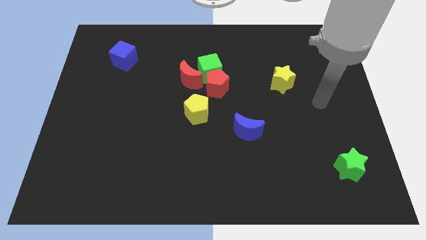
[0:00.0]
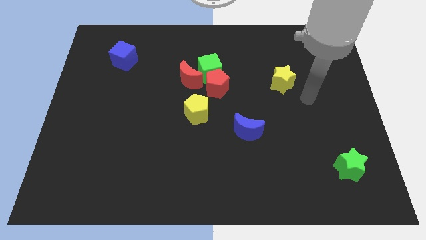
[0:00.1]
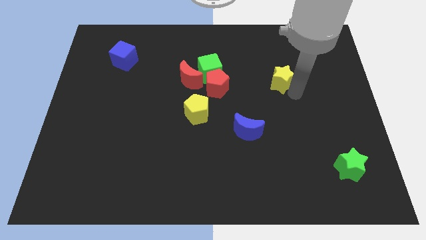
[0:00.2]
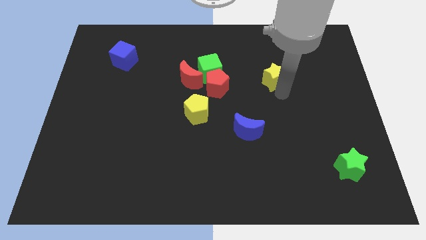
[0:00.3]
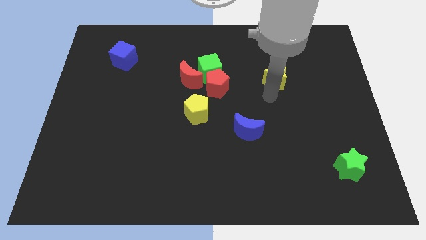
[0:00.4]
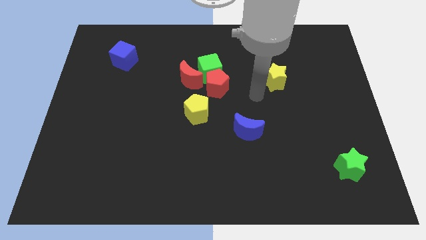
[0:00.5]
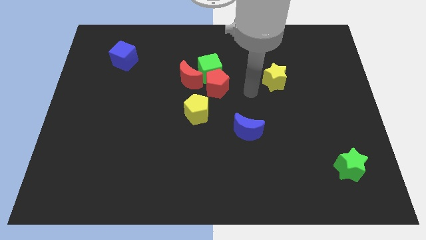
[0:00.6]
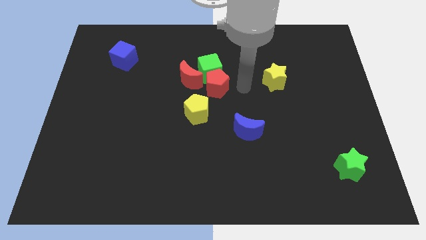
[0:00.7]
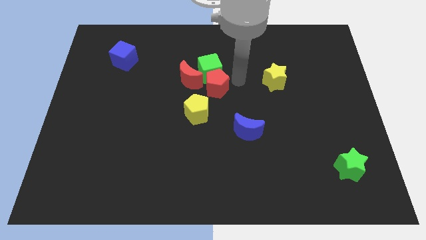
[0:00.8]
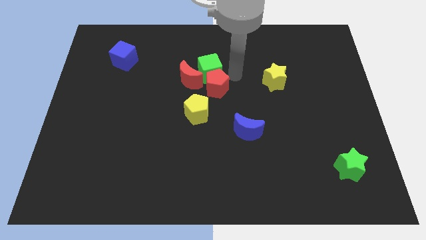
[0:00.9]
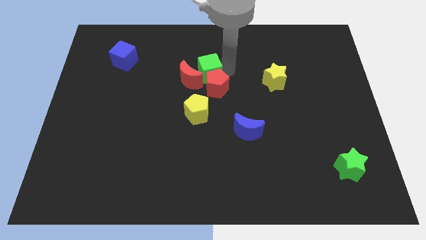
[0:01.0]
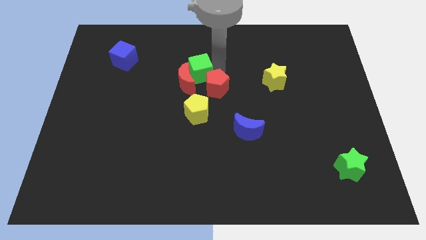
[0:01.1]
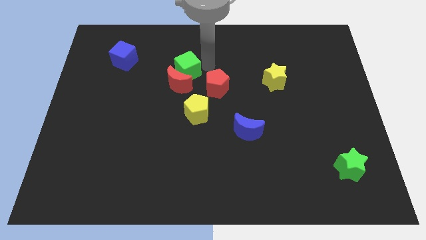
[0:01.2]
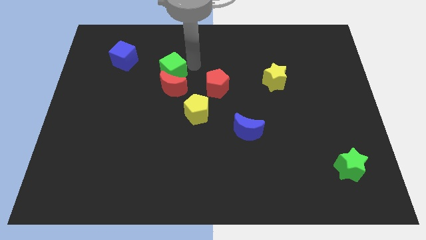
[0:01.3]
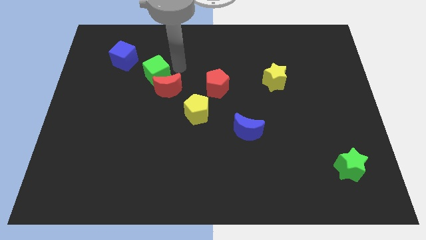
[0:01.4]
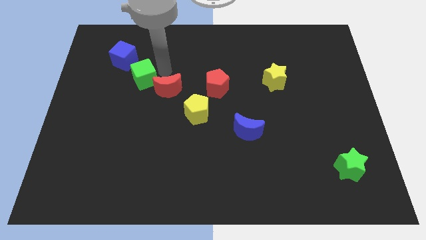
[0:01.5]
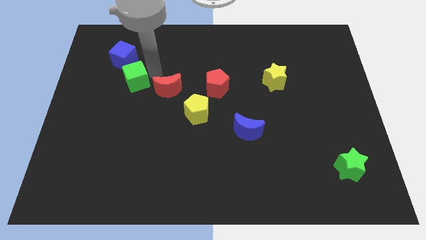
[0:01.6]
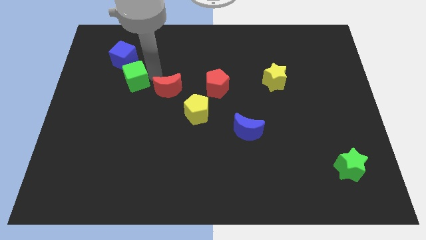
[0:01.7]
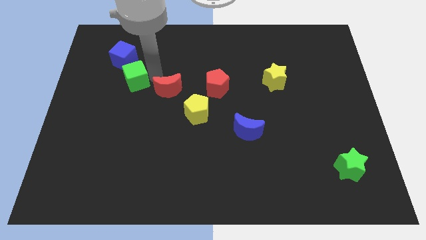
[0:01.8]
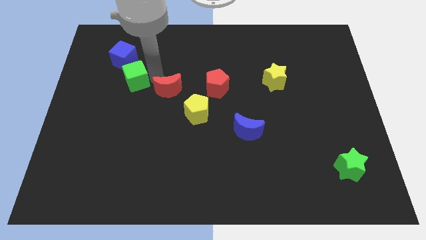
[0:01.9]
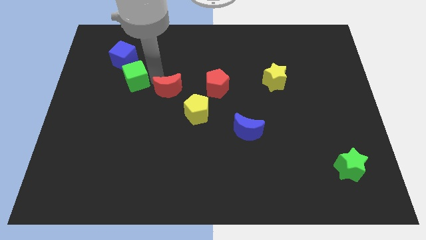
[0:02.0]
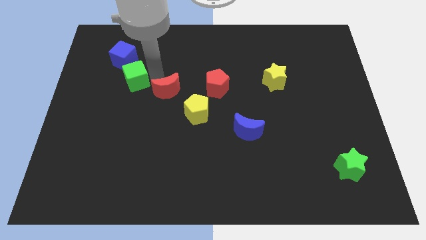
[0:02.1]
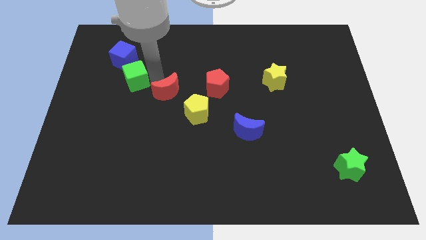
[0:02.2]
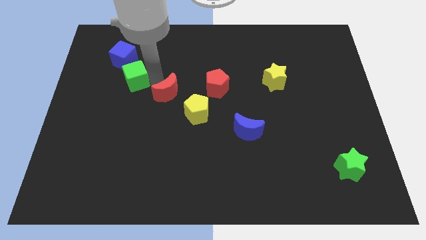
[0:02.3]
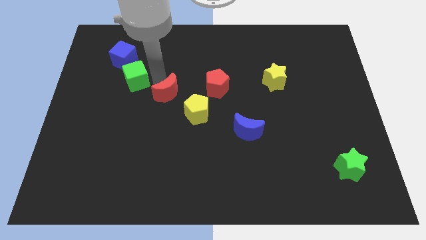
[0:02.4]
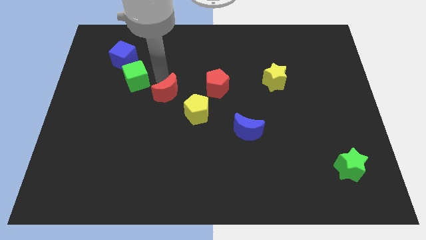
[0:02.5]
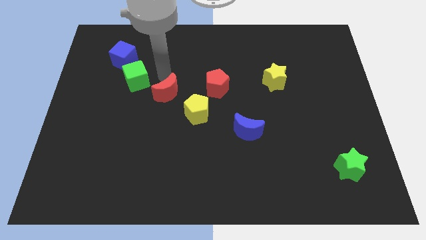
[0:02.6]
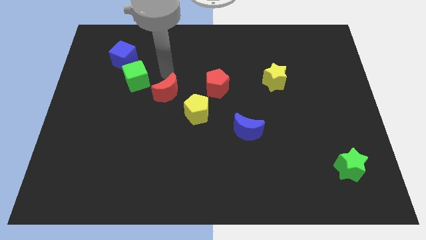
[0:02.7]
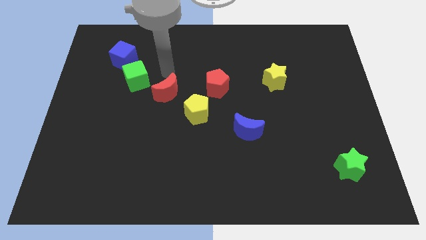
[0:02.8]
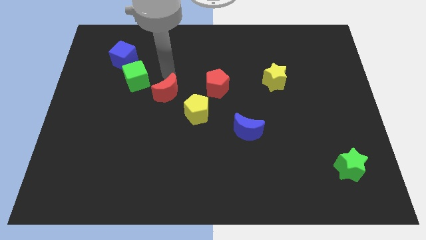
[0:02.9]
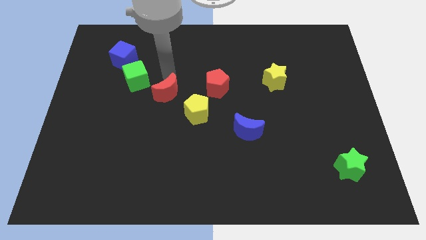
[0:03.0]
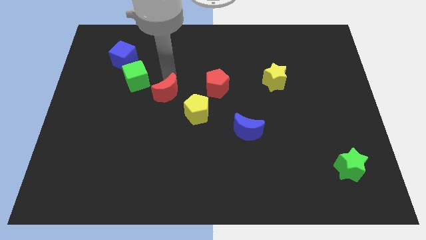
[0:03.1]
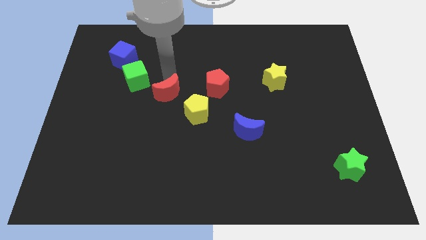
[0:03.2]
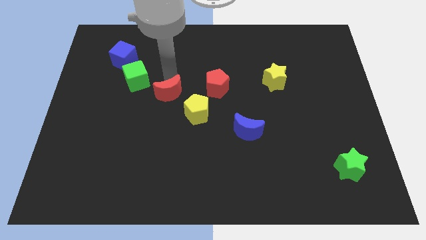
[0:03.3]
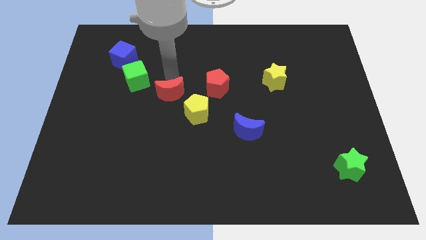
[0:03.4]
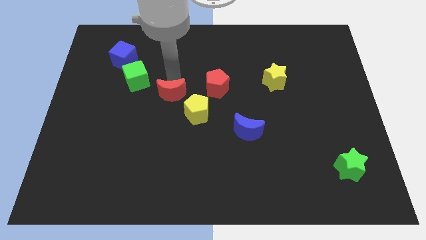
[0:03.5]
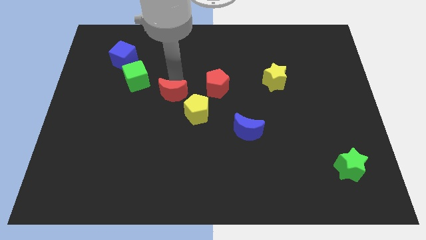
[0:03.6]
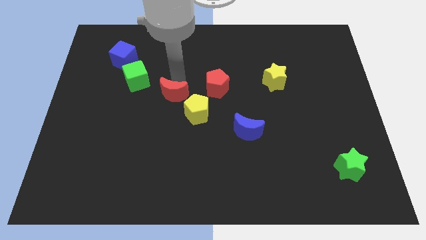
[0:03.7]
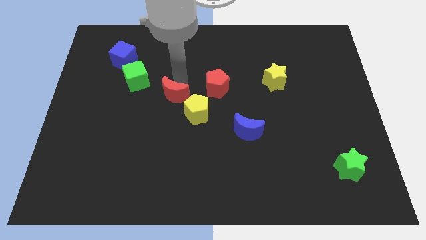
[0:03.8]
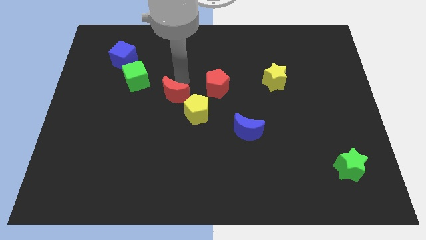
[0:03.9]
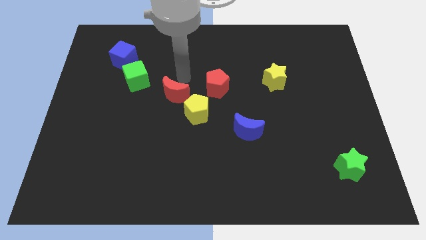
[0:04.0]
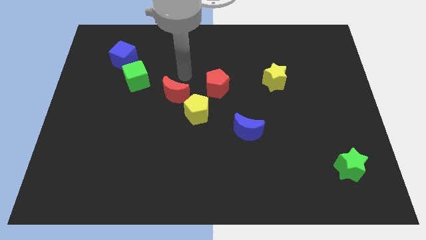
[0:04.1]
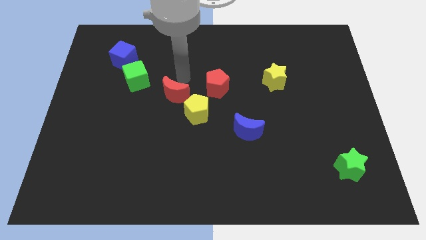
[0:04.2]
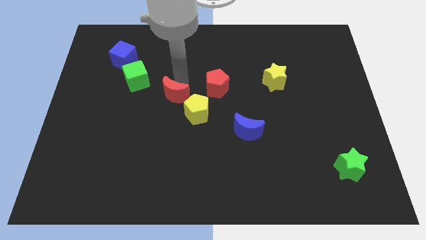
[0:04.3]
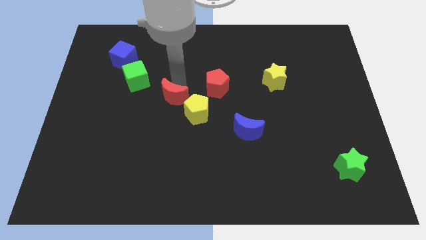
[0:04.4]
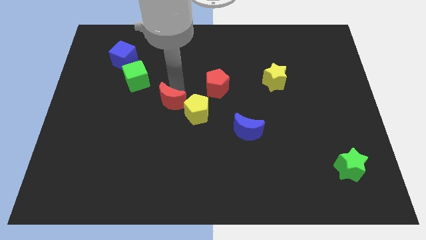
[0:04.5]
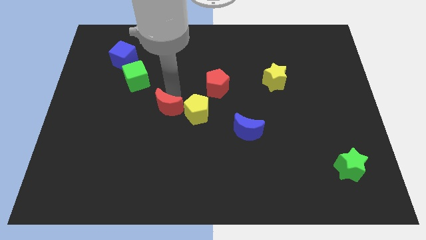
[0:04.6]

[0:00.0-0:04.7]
move the red moon a bit downwards

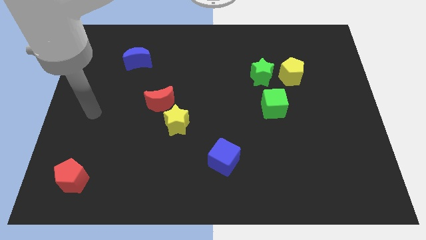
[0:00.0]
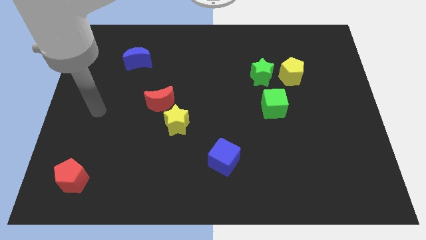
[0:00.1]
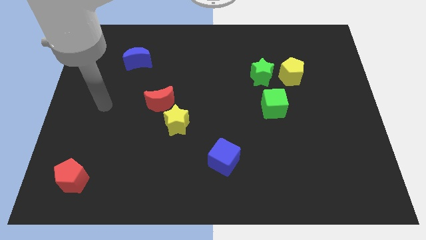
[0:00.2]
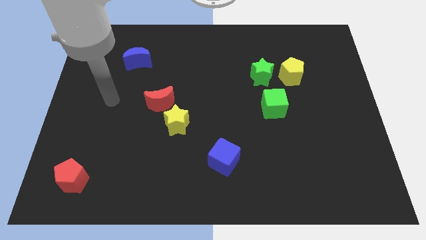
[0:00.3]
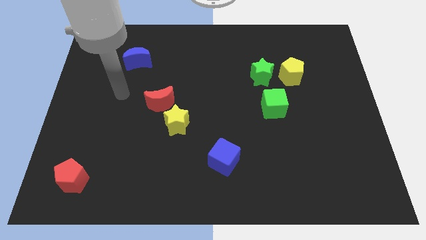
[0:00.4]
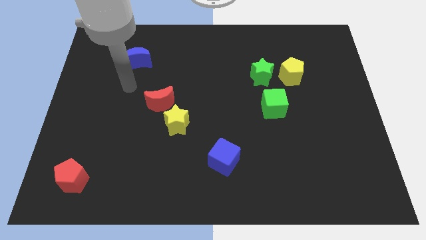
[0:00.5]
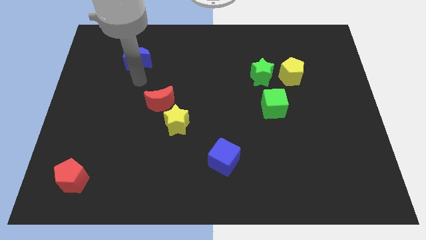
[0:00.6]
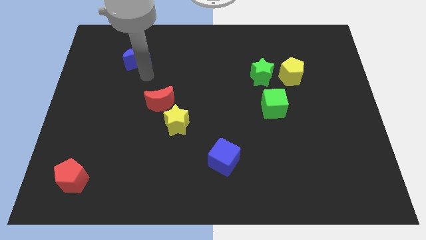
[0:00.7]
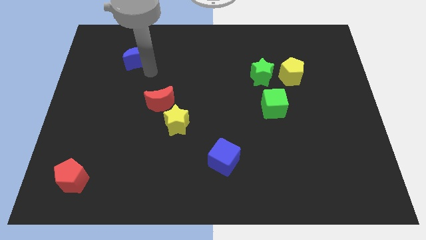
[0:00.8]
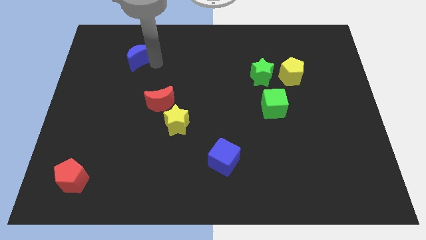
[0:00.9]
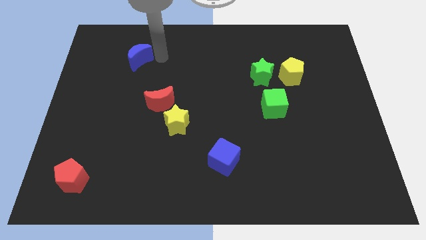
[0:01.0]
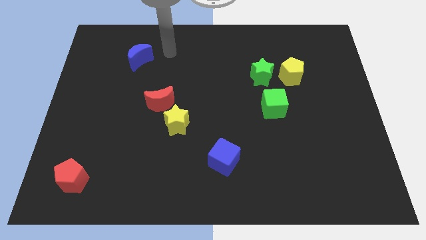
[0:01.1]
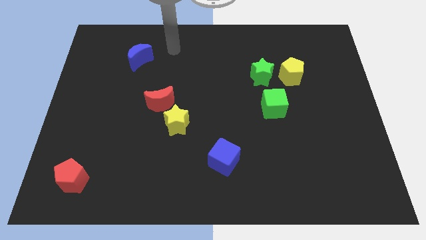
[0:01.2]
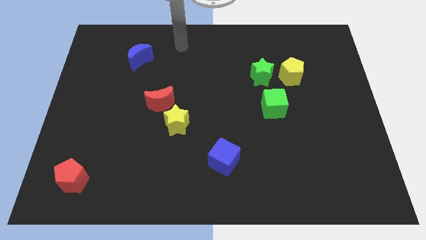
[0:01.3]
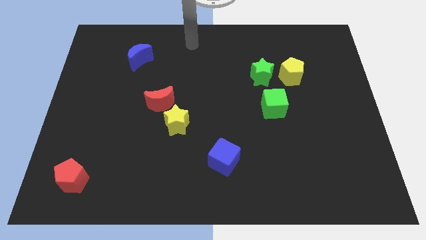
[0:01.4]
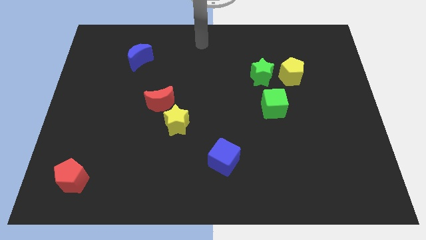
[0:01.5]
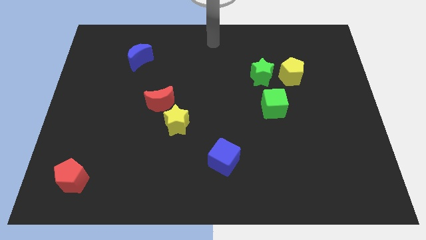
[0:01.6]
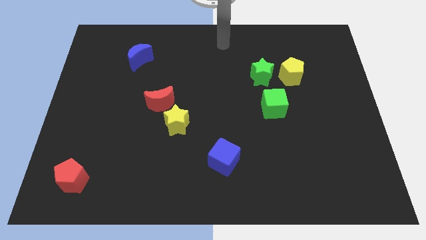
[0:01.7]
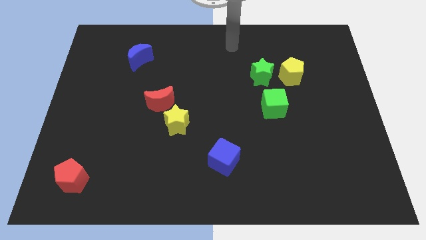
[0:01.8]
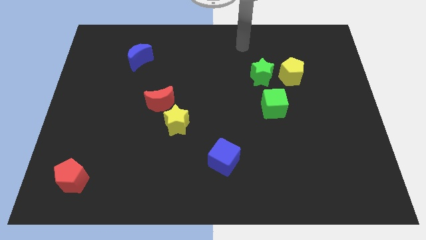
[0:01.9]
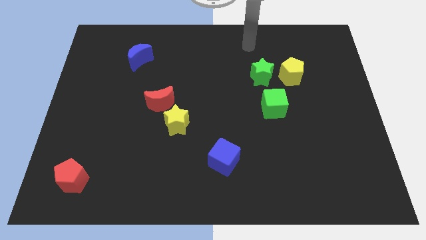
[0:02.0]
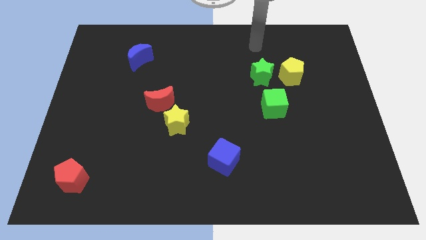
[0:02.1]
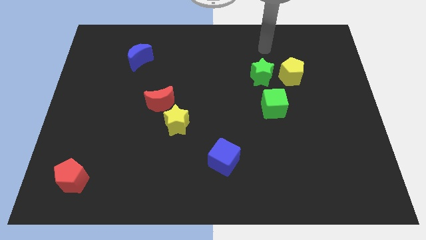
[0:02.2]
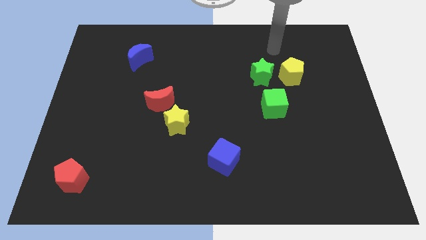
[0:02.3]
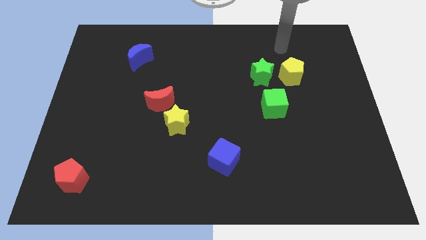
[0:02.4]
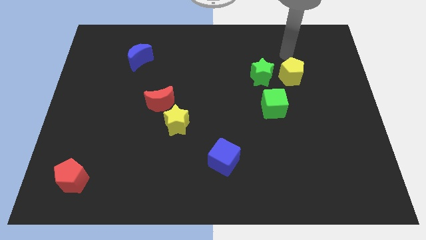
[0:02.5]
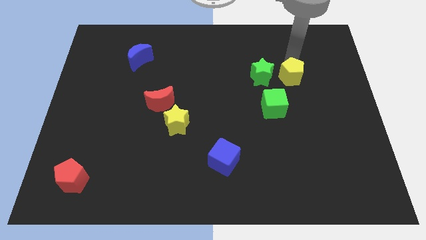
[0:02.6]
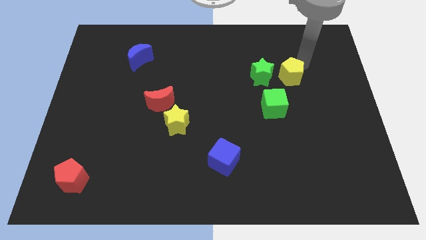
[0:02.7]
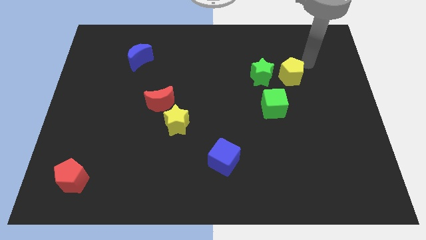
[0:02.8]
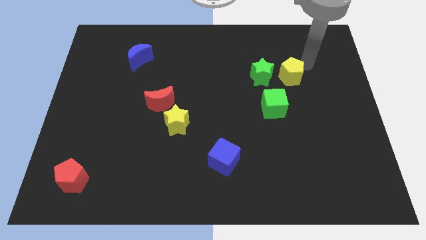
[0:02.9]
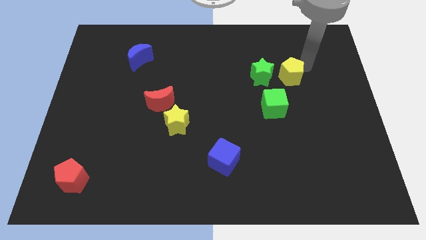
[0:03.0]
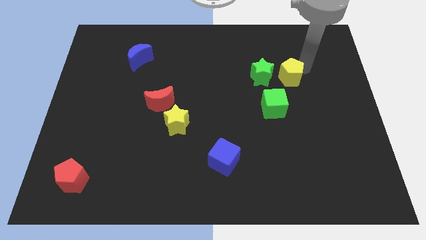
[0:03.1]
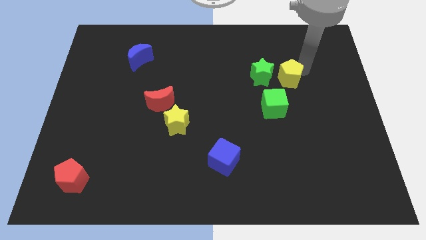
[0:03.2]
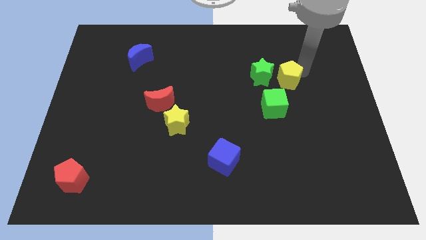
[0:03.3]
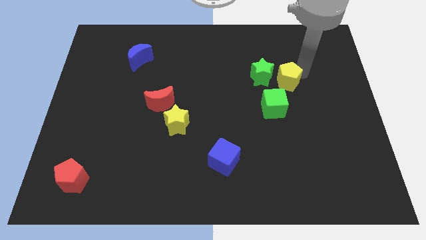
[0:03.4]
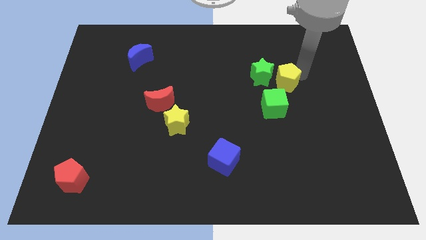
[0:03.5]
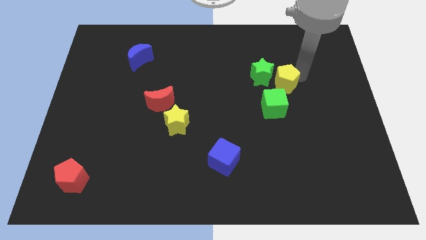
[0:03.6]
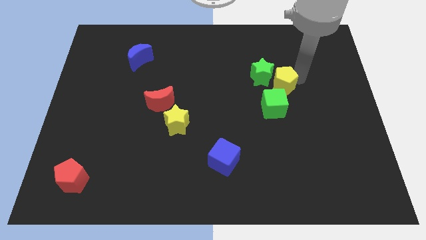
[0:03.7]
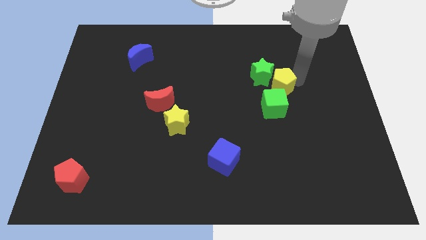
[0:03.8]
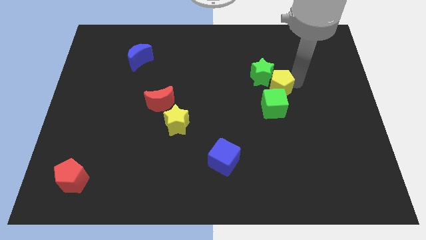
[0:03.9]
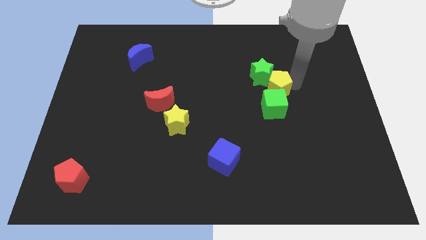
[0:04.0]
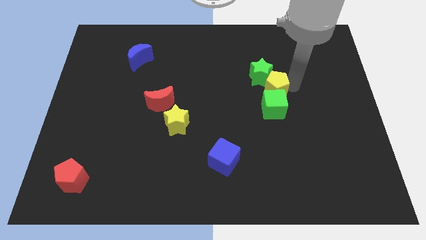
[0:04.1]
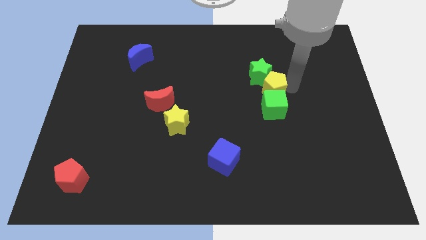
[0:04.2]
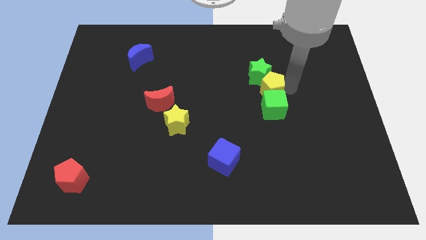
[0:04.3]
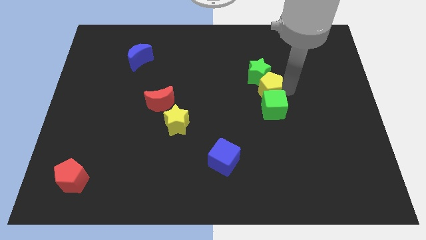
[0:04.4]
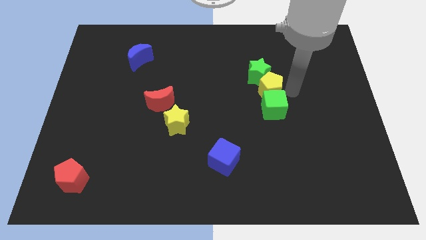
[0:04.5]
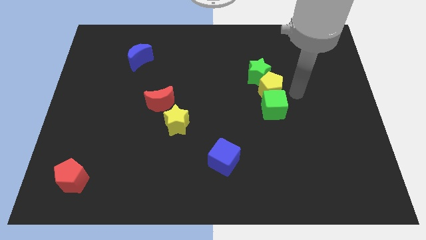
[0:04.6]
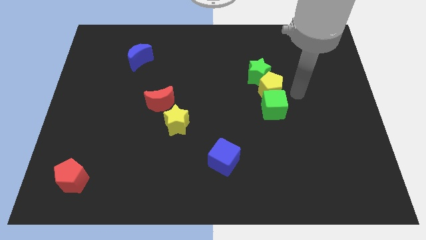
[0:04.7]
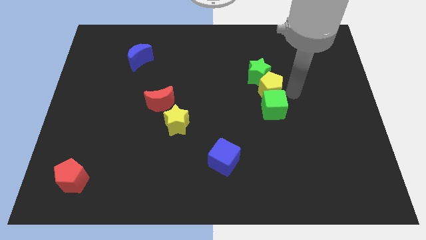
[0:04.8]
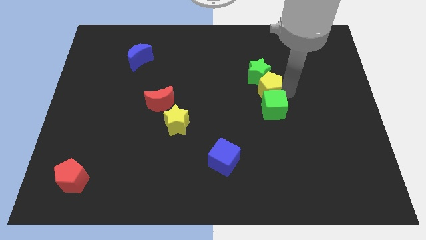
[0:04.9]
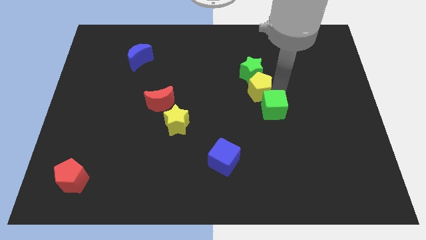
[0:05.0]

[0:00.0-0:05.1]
slightly slide the yellow pentagon to the left
